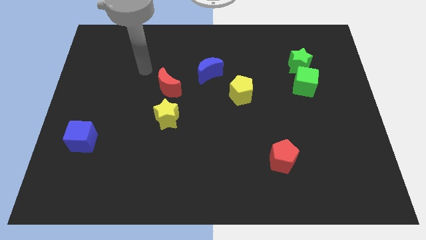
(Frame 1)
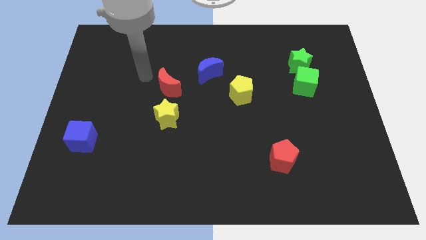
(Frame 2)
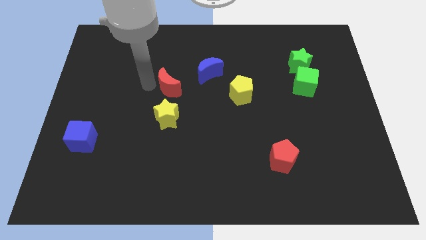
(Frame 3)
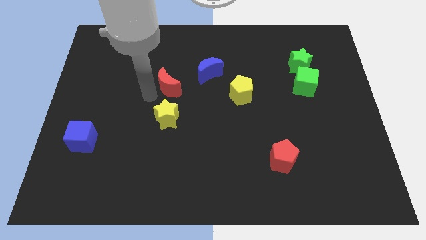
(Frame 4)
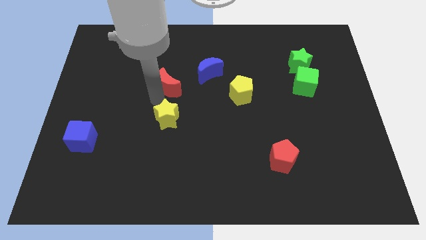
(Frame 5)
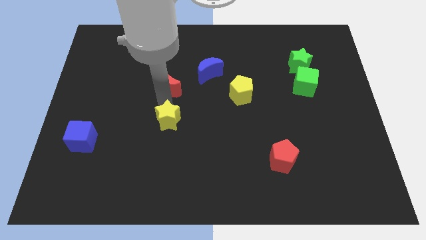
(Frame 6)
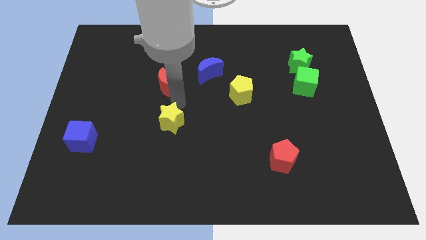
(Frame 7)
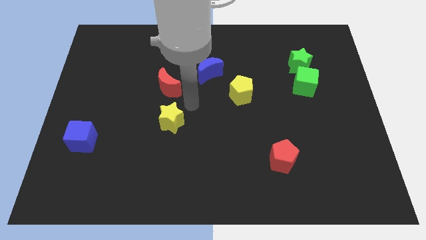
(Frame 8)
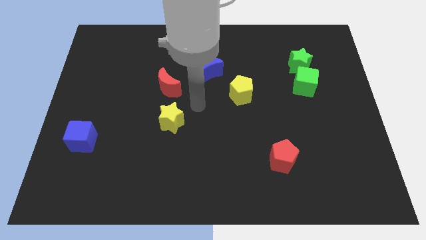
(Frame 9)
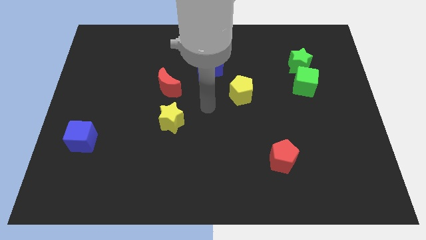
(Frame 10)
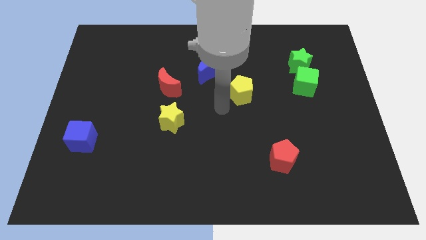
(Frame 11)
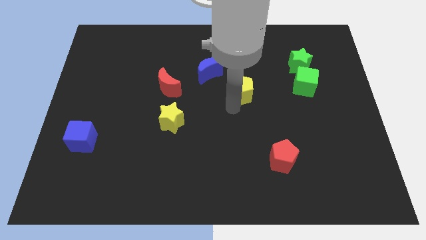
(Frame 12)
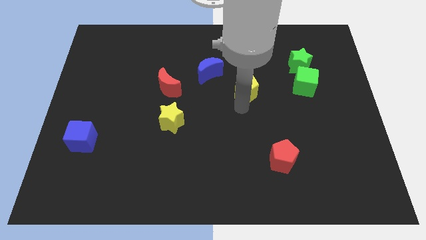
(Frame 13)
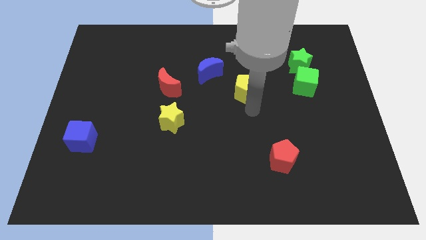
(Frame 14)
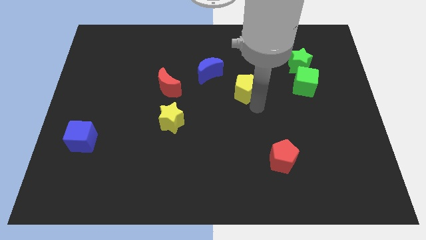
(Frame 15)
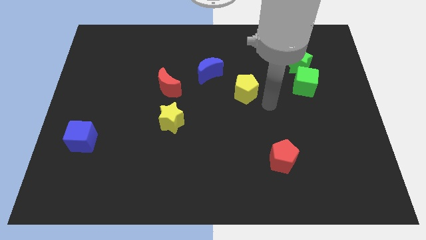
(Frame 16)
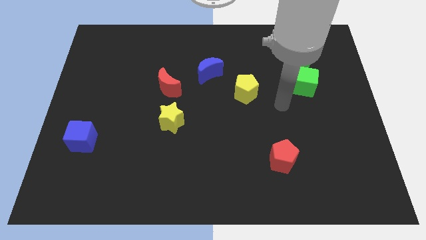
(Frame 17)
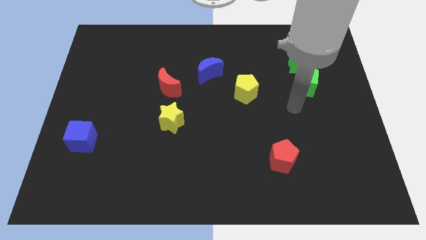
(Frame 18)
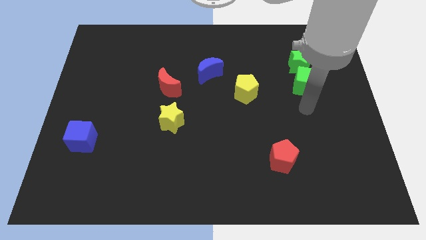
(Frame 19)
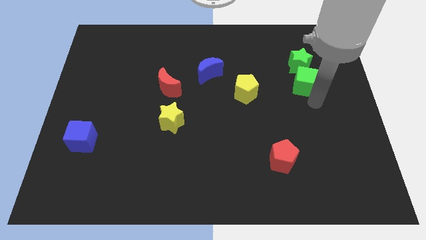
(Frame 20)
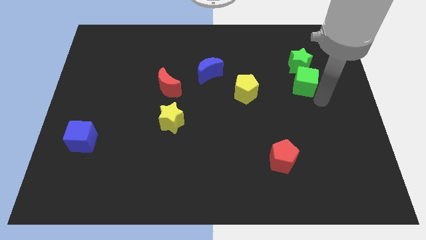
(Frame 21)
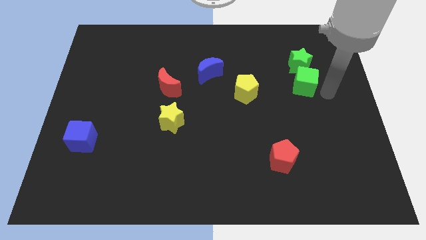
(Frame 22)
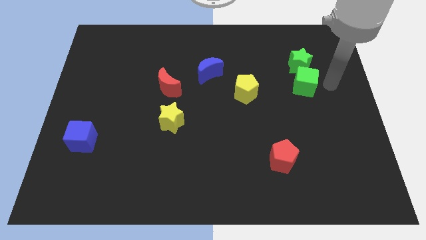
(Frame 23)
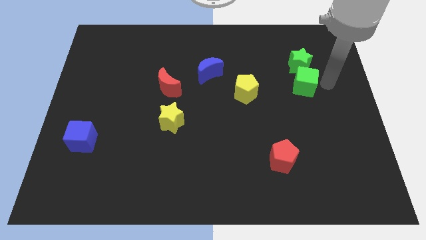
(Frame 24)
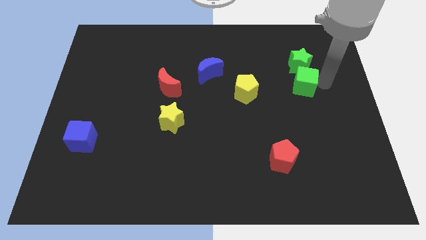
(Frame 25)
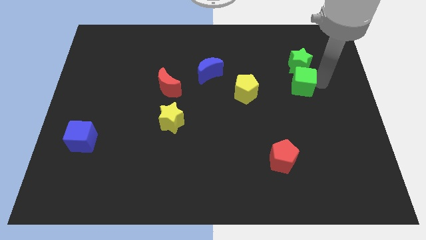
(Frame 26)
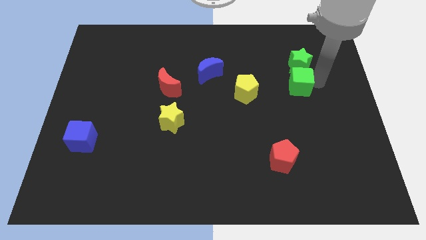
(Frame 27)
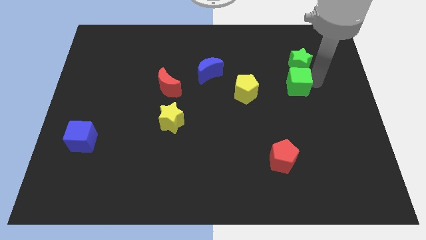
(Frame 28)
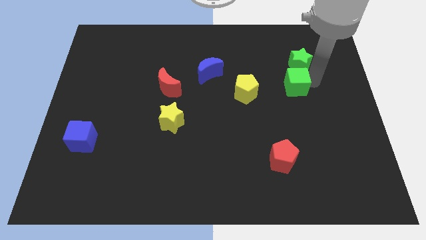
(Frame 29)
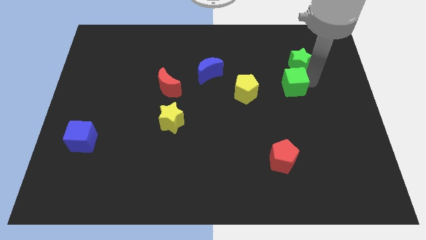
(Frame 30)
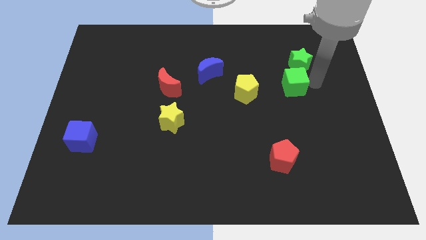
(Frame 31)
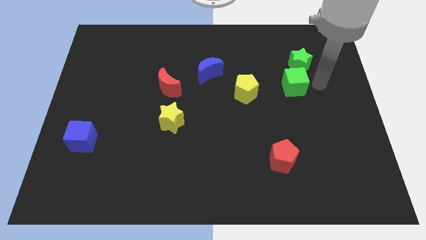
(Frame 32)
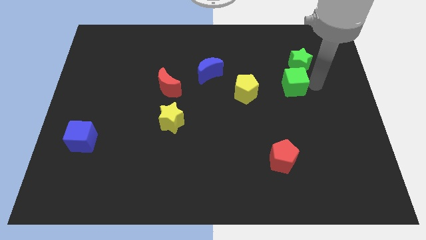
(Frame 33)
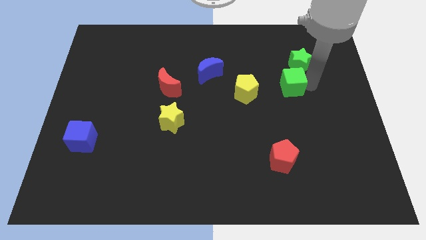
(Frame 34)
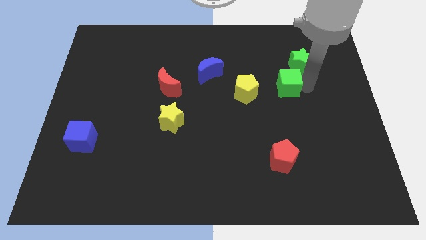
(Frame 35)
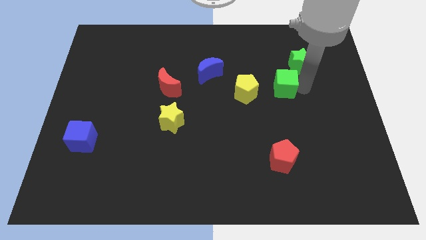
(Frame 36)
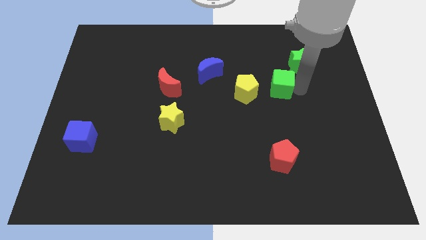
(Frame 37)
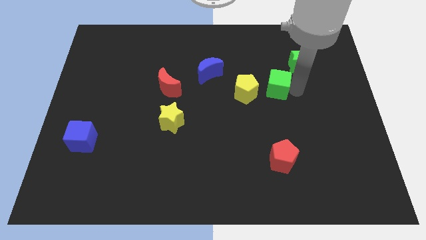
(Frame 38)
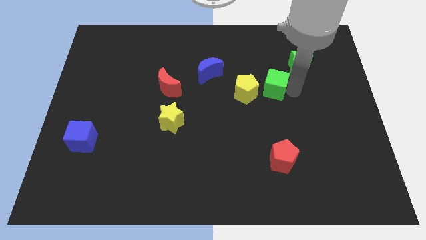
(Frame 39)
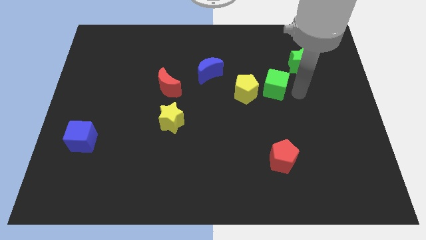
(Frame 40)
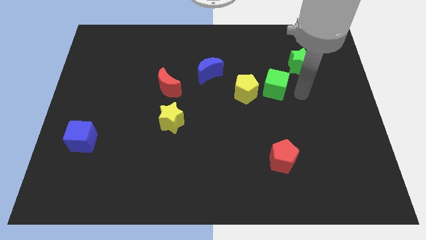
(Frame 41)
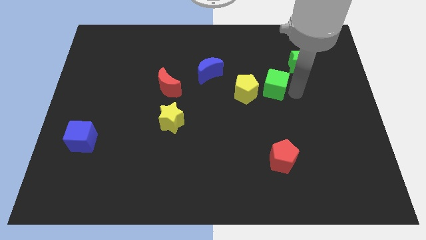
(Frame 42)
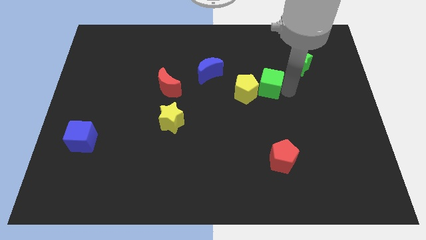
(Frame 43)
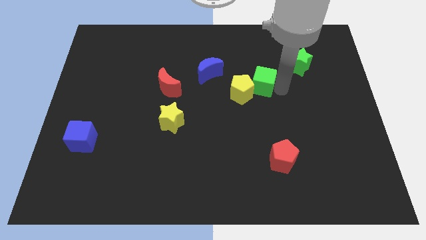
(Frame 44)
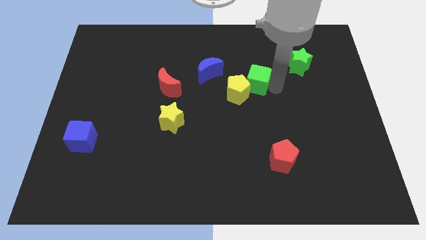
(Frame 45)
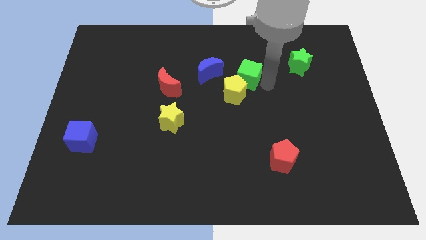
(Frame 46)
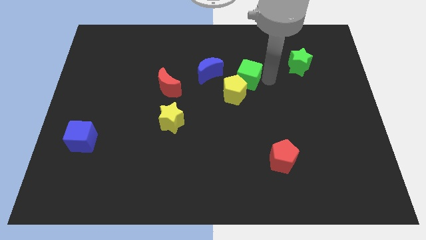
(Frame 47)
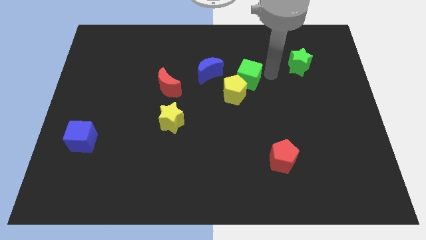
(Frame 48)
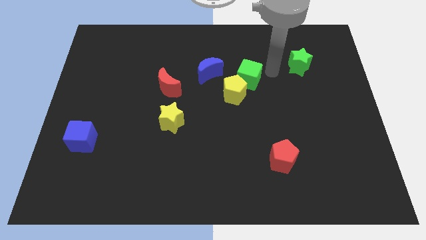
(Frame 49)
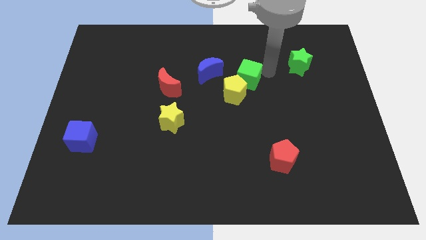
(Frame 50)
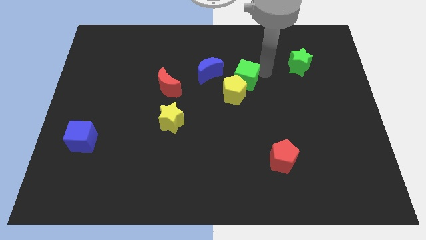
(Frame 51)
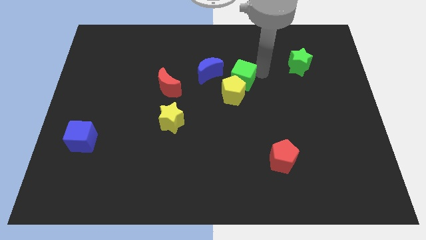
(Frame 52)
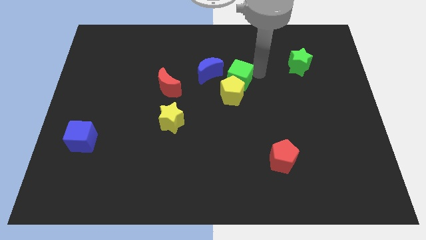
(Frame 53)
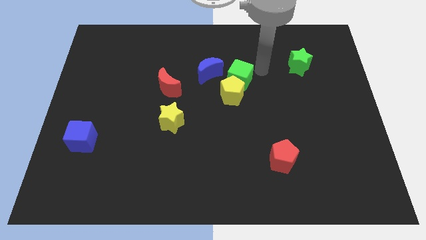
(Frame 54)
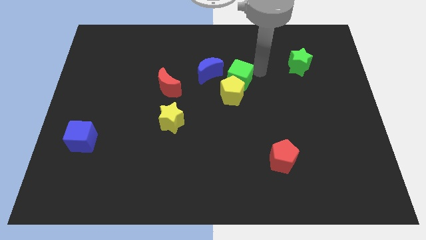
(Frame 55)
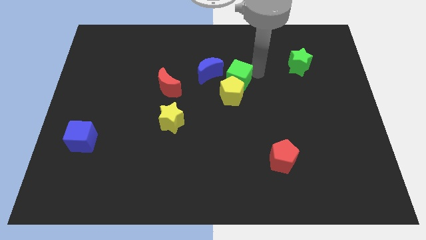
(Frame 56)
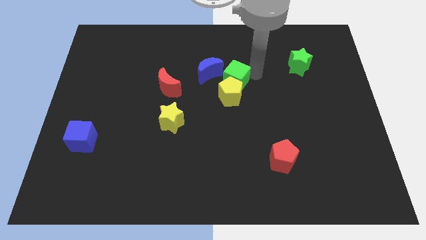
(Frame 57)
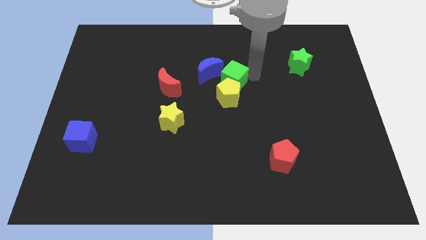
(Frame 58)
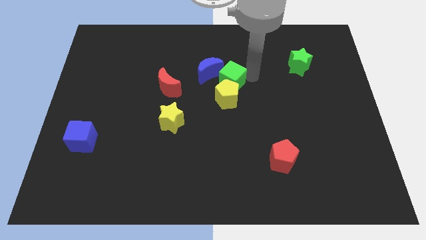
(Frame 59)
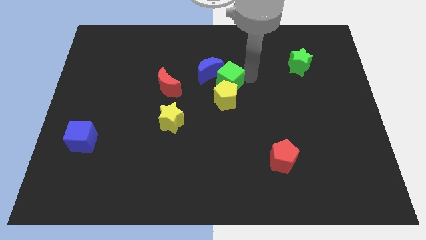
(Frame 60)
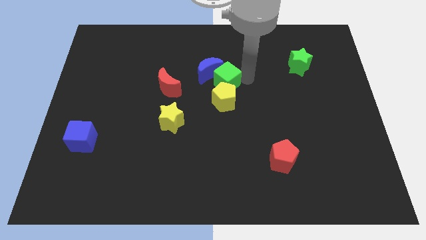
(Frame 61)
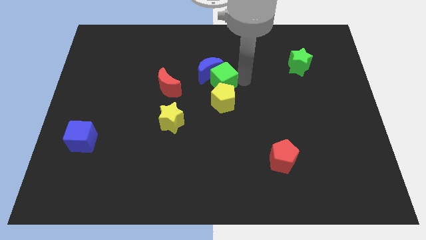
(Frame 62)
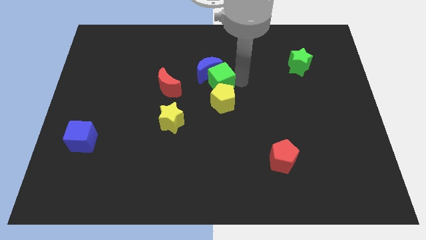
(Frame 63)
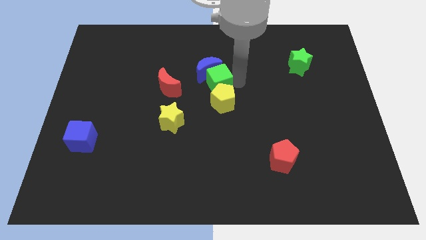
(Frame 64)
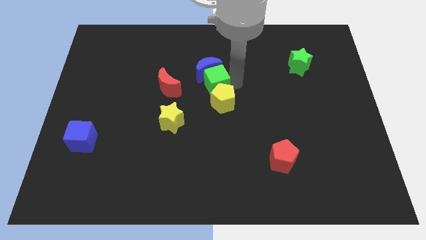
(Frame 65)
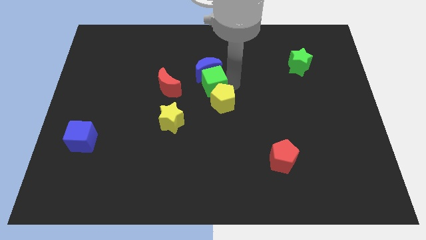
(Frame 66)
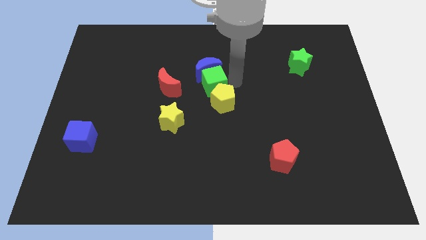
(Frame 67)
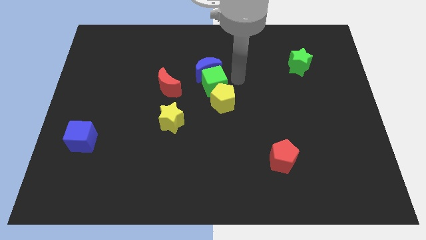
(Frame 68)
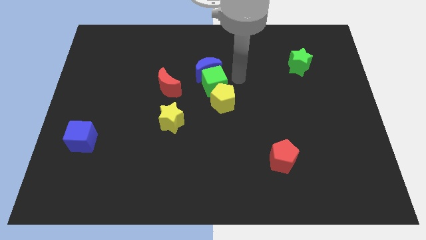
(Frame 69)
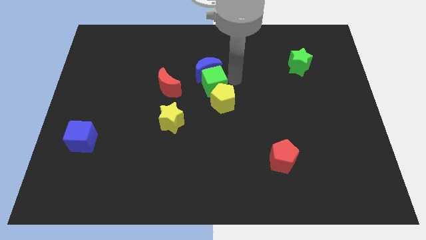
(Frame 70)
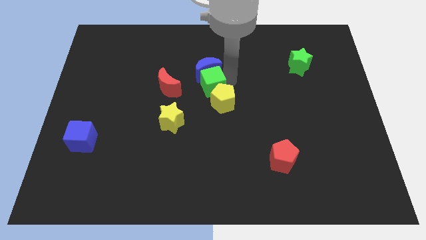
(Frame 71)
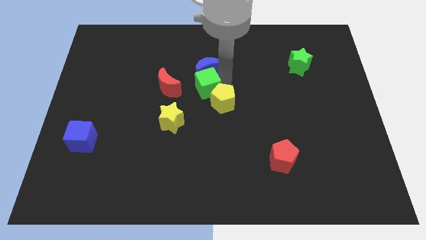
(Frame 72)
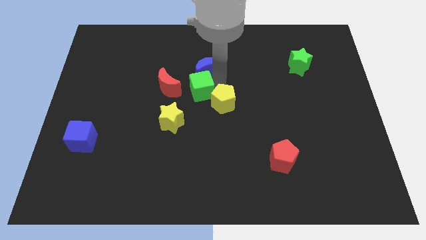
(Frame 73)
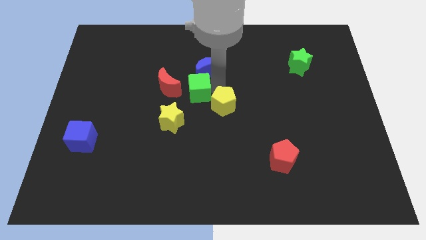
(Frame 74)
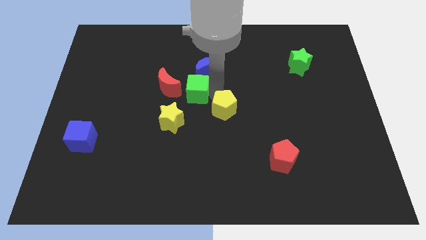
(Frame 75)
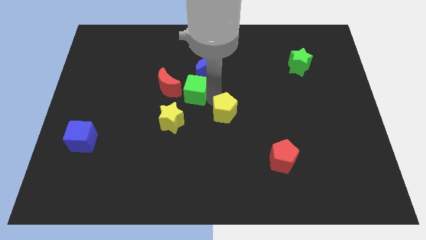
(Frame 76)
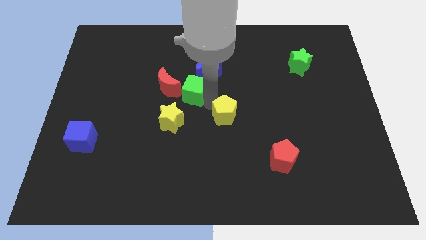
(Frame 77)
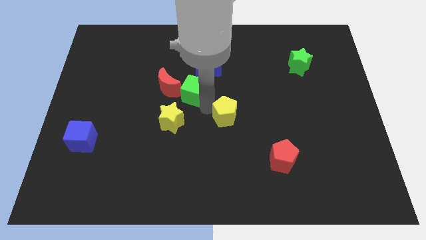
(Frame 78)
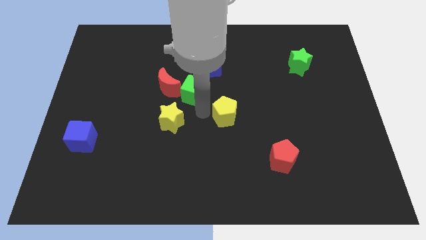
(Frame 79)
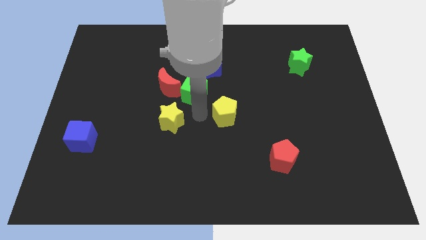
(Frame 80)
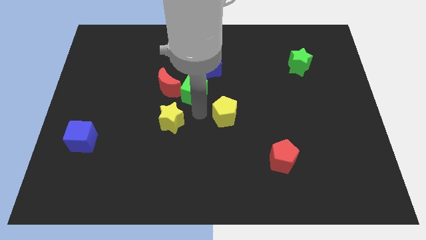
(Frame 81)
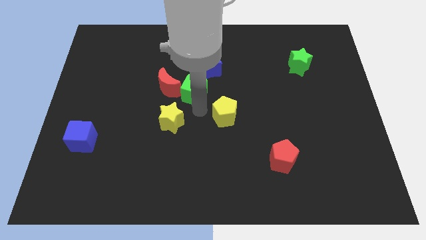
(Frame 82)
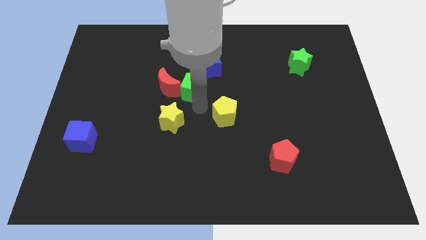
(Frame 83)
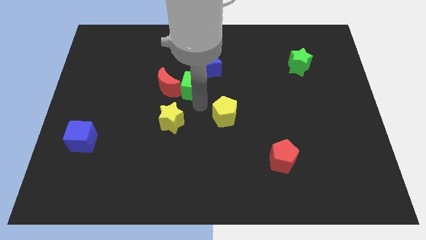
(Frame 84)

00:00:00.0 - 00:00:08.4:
slide the green cube to the top right side of the red moon
